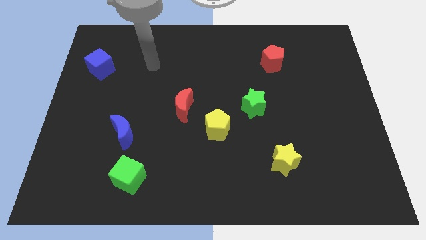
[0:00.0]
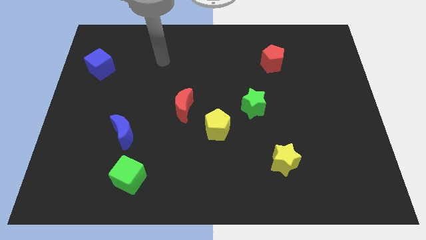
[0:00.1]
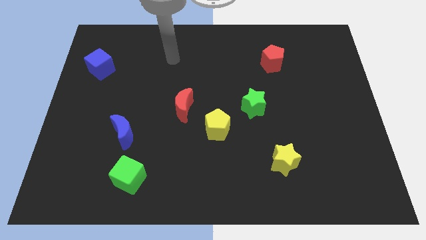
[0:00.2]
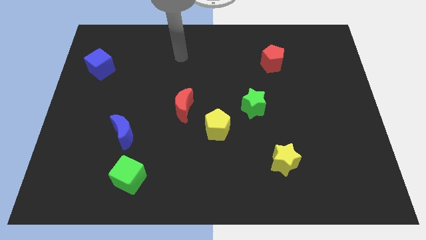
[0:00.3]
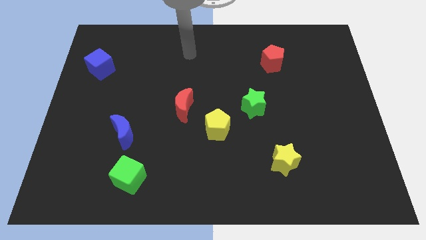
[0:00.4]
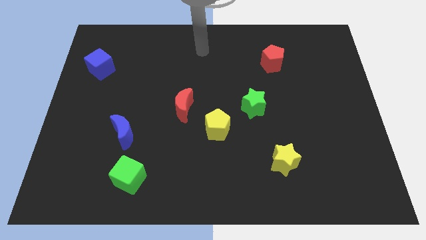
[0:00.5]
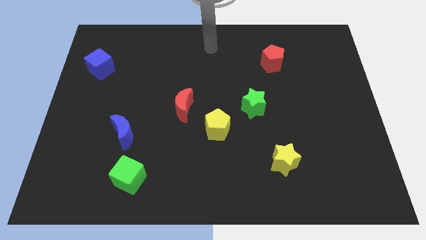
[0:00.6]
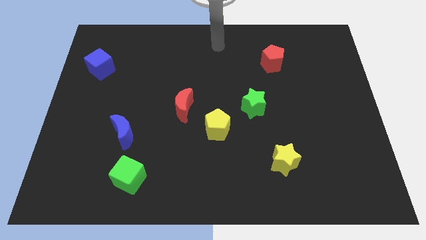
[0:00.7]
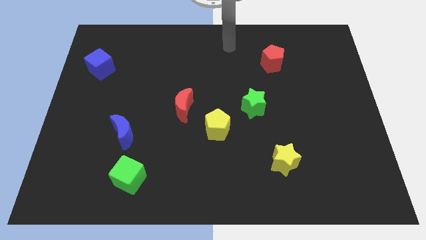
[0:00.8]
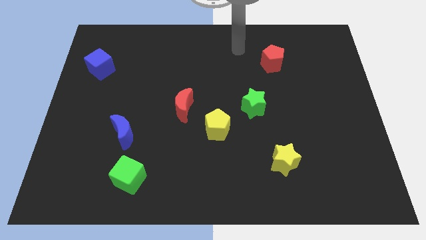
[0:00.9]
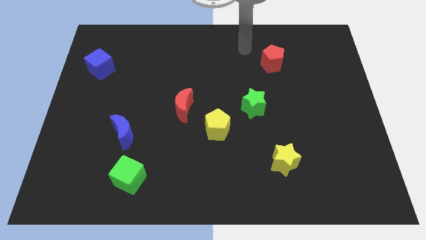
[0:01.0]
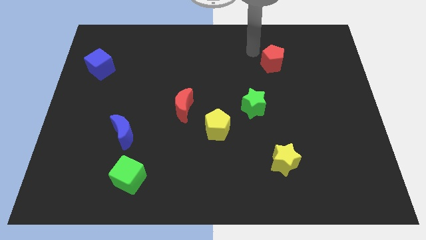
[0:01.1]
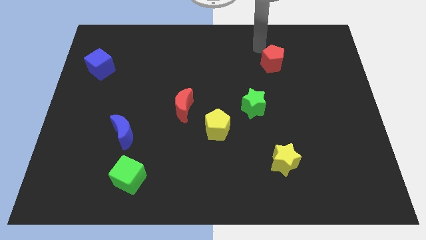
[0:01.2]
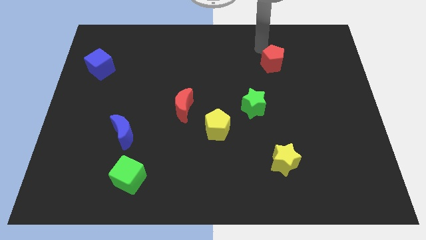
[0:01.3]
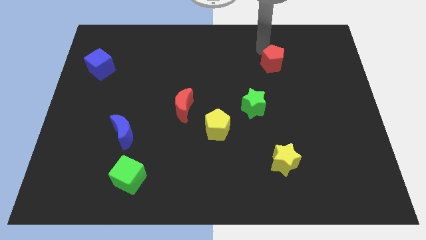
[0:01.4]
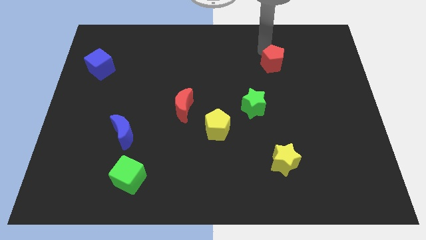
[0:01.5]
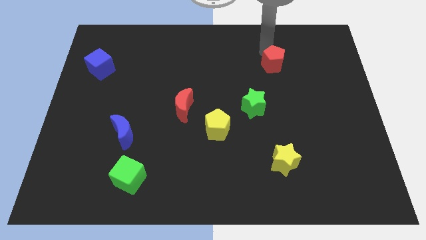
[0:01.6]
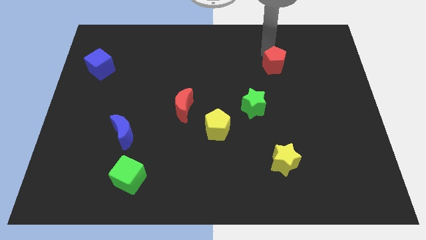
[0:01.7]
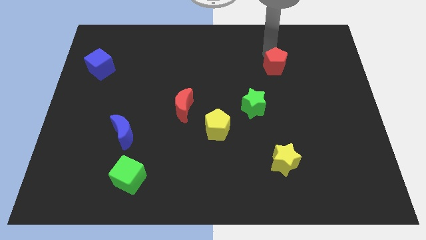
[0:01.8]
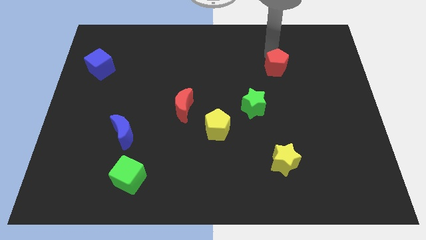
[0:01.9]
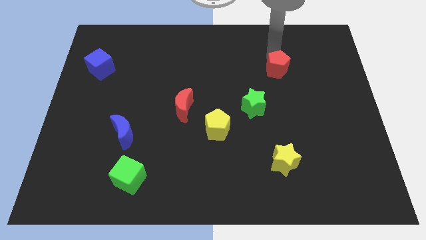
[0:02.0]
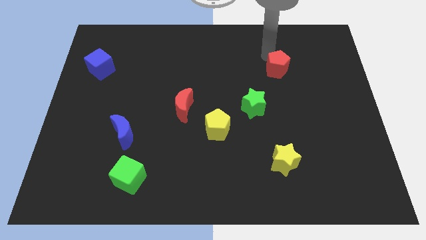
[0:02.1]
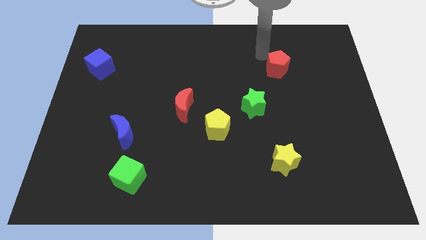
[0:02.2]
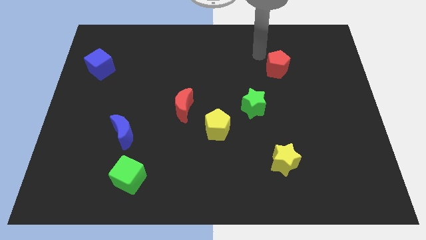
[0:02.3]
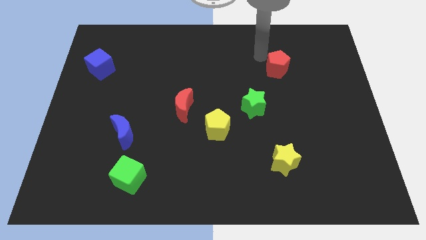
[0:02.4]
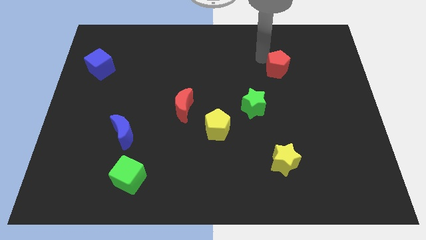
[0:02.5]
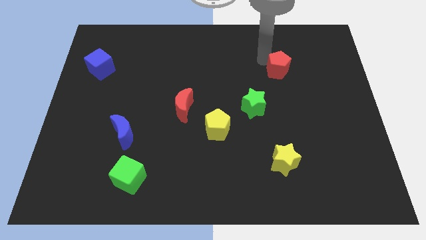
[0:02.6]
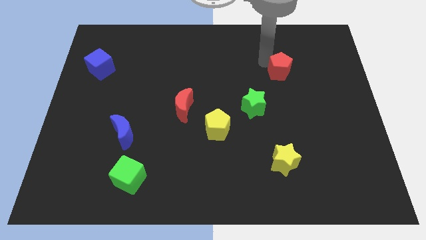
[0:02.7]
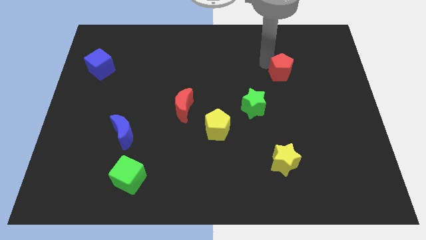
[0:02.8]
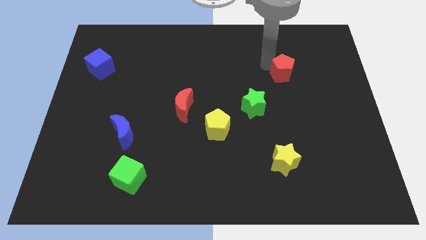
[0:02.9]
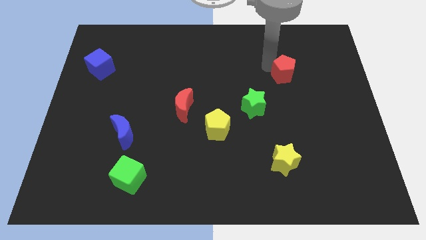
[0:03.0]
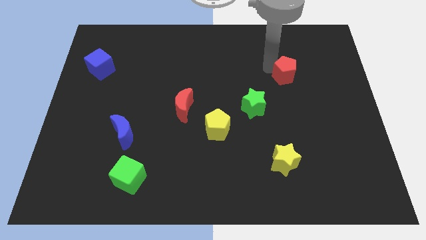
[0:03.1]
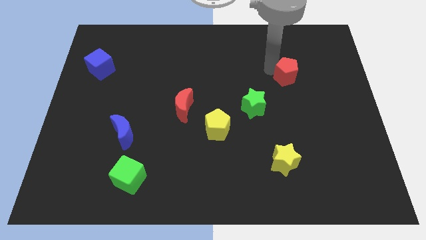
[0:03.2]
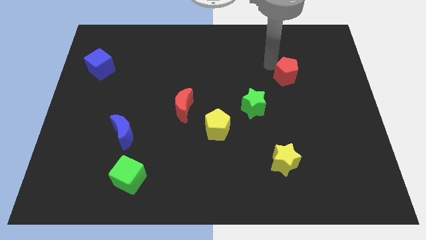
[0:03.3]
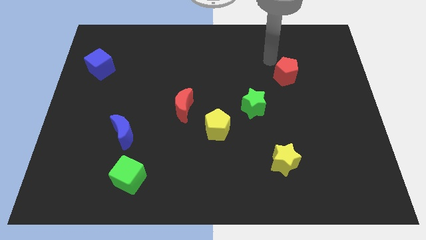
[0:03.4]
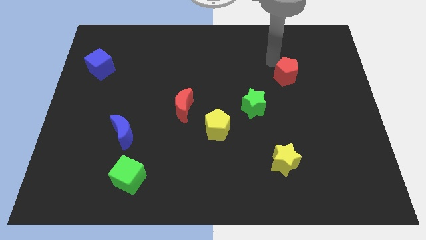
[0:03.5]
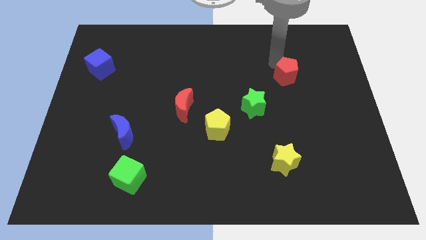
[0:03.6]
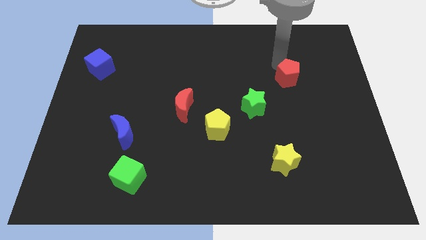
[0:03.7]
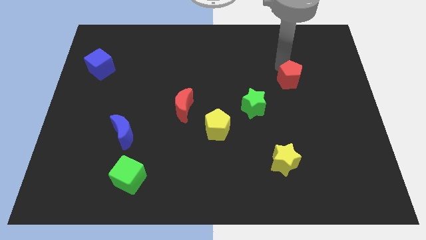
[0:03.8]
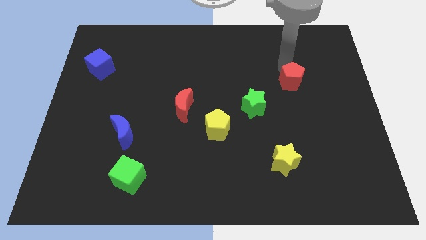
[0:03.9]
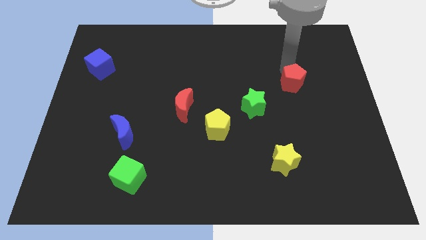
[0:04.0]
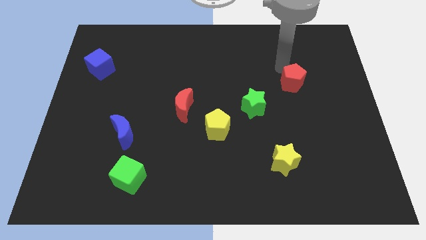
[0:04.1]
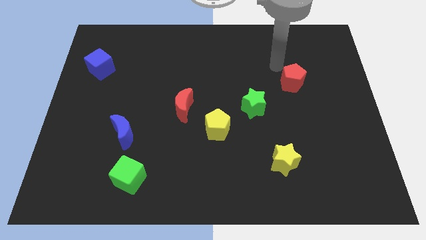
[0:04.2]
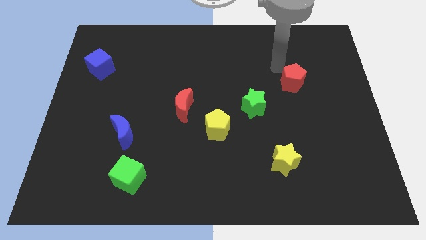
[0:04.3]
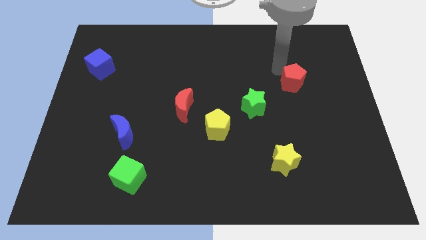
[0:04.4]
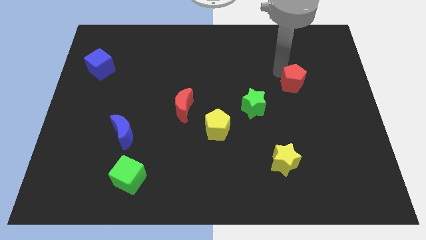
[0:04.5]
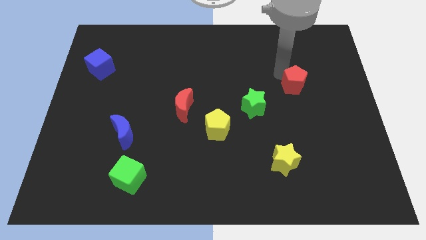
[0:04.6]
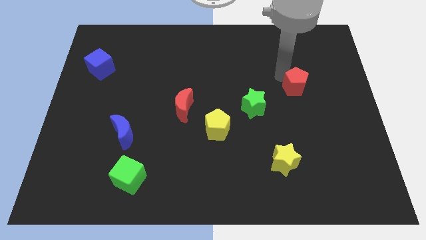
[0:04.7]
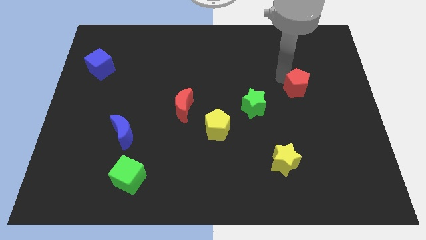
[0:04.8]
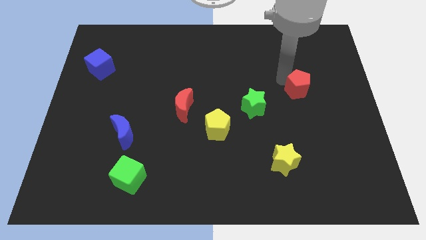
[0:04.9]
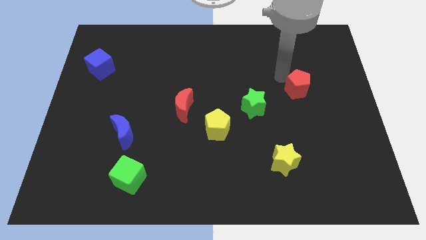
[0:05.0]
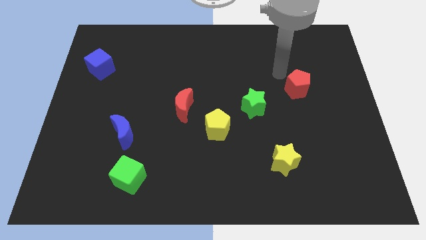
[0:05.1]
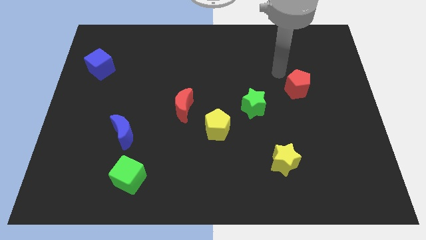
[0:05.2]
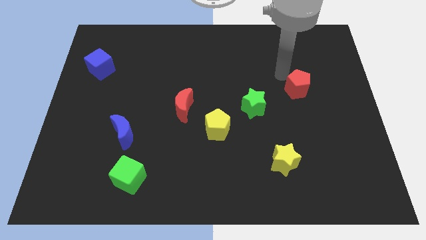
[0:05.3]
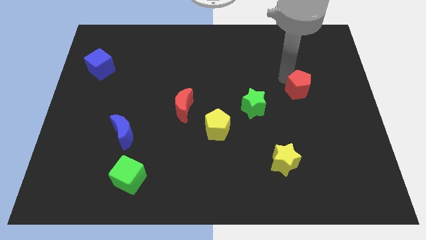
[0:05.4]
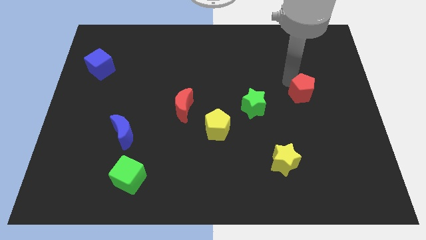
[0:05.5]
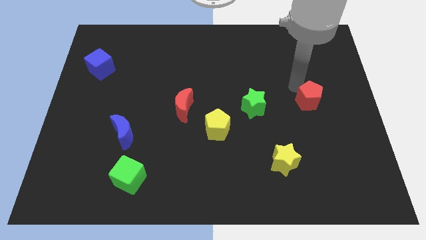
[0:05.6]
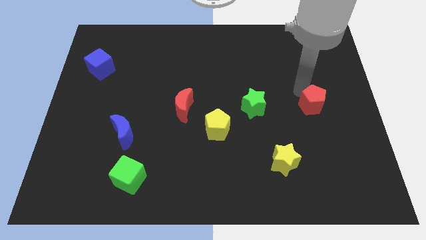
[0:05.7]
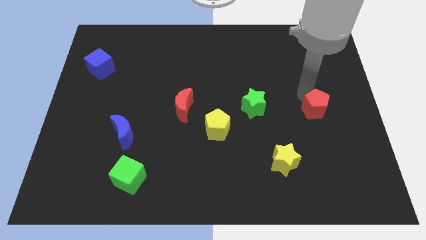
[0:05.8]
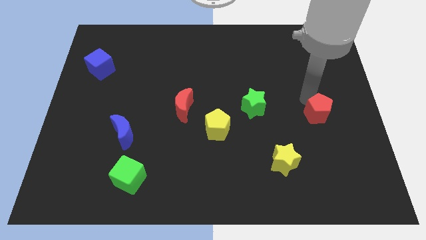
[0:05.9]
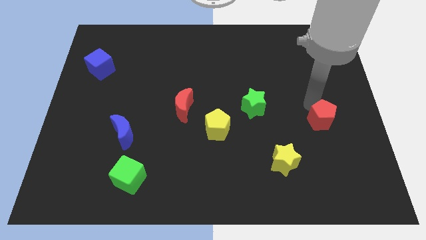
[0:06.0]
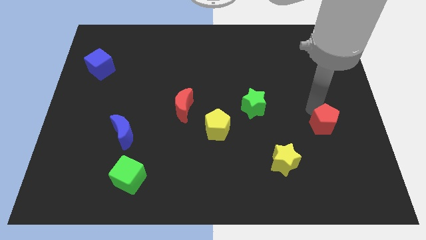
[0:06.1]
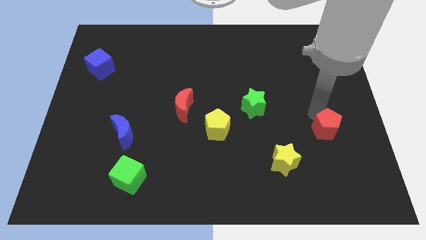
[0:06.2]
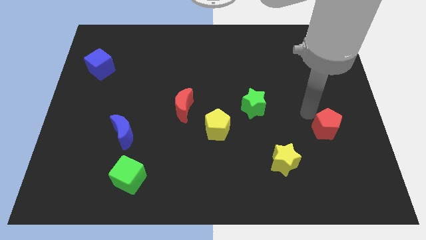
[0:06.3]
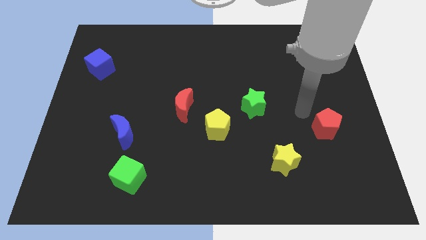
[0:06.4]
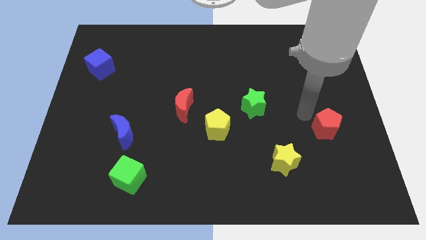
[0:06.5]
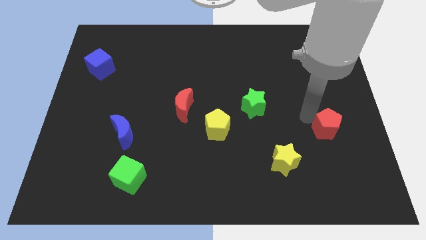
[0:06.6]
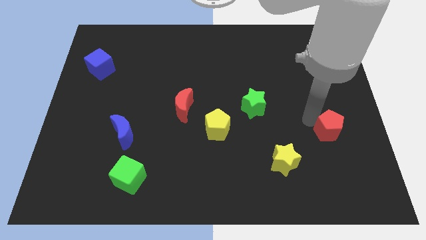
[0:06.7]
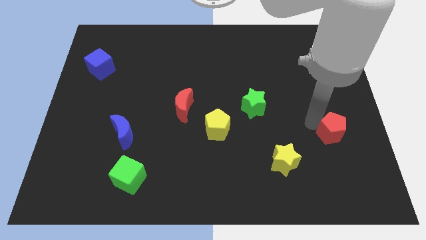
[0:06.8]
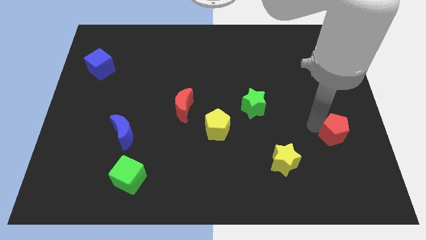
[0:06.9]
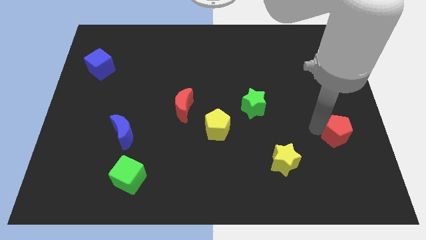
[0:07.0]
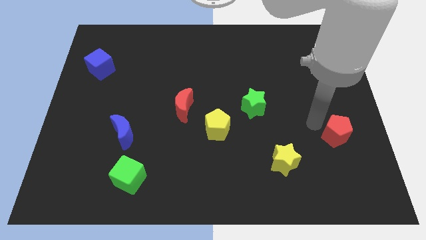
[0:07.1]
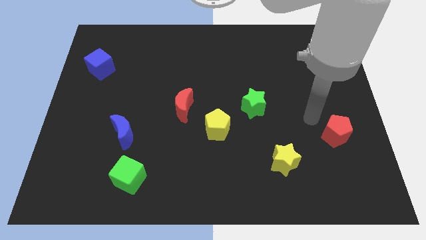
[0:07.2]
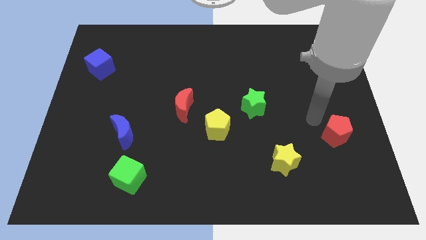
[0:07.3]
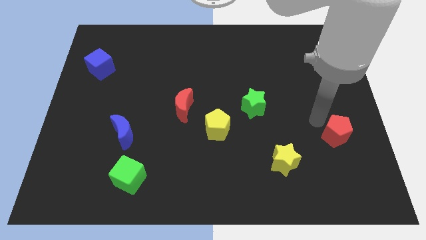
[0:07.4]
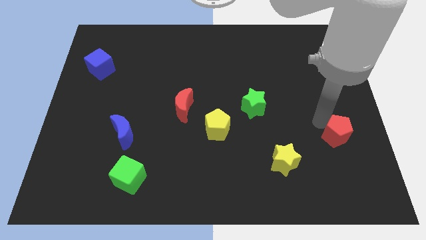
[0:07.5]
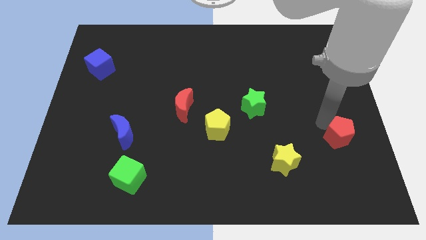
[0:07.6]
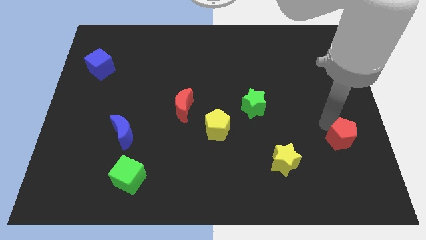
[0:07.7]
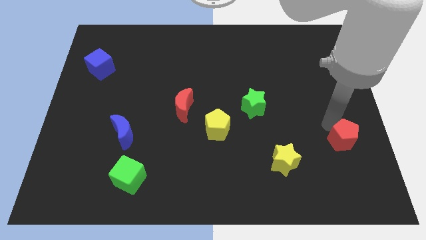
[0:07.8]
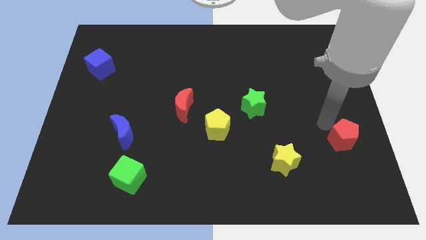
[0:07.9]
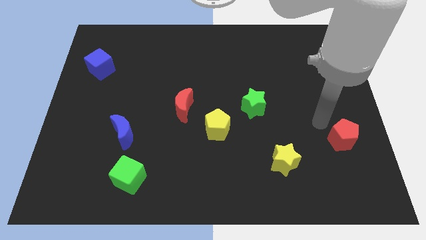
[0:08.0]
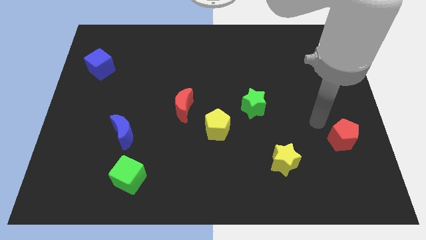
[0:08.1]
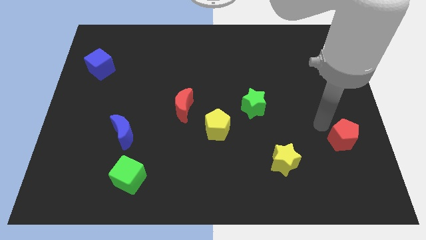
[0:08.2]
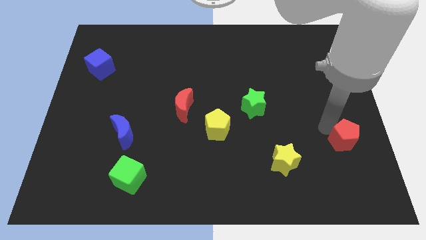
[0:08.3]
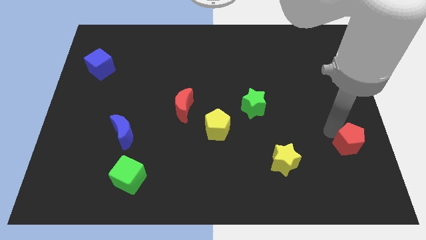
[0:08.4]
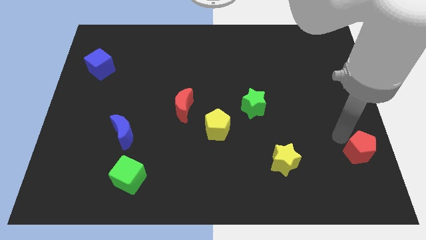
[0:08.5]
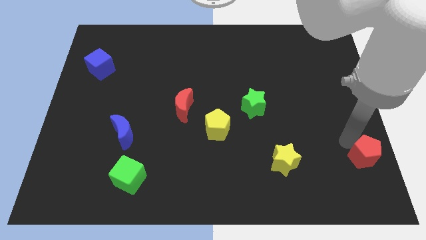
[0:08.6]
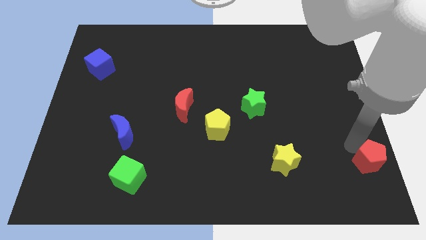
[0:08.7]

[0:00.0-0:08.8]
push the red pentagon to the bottom right of the board
